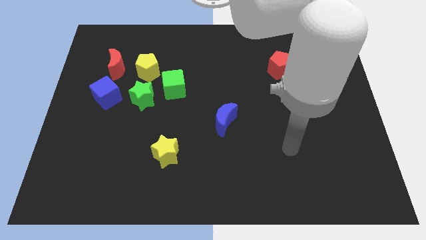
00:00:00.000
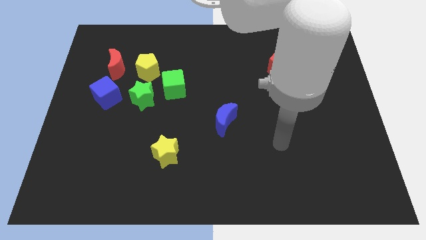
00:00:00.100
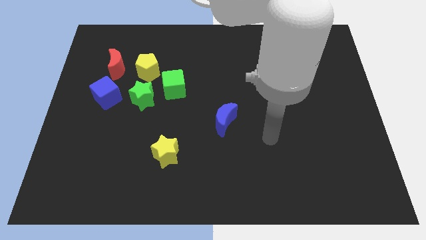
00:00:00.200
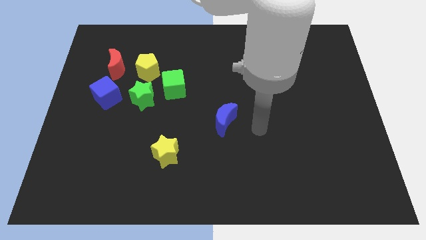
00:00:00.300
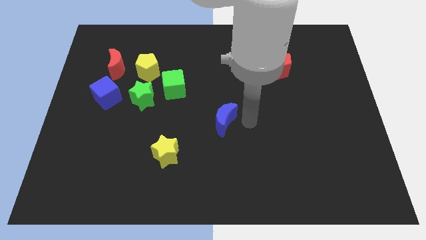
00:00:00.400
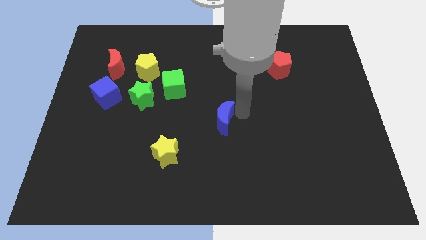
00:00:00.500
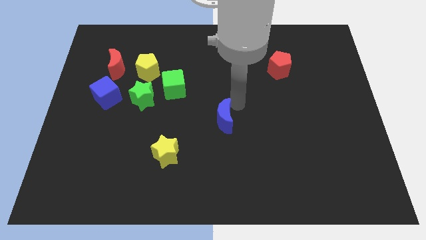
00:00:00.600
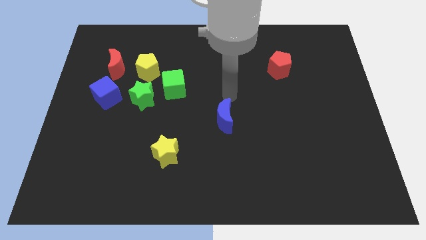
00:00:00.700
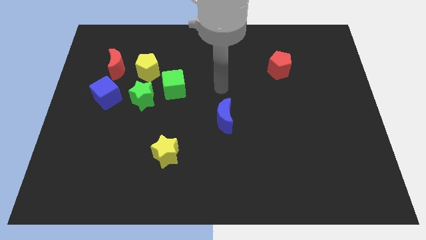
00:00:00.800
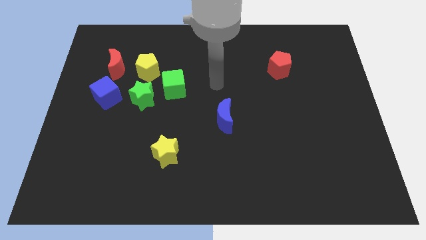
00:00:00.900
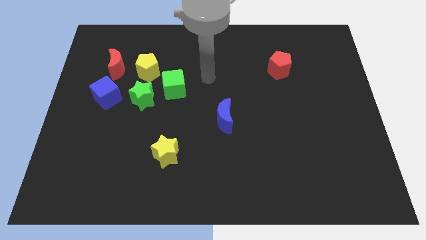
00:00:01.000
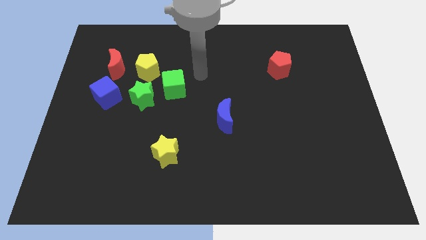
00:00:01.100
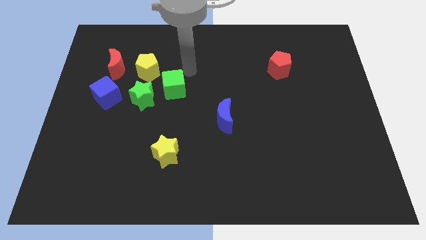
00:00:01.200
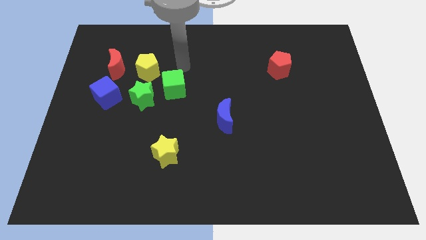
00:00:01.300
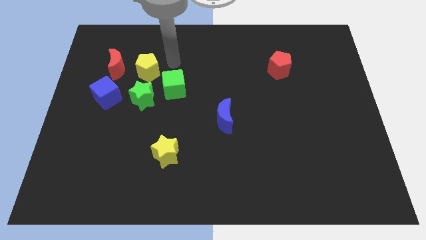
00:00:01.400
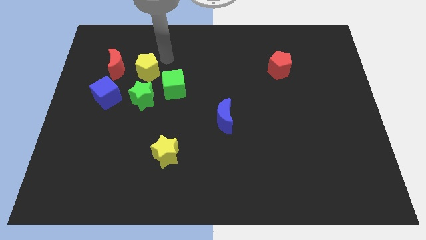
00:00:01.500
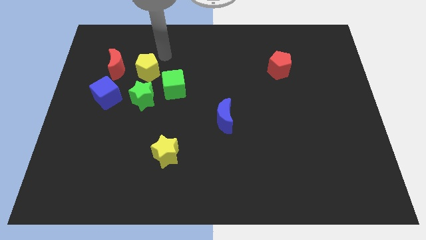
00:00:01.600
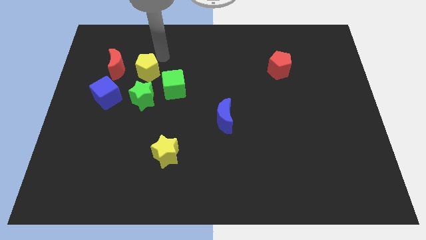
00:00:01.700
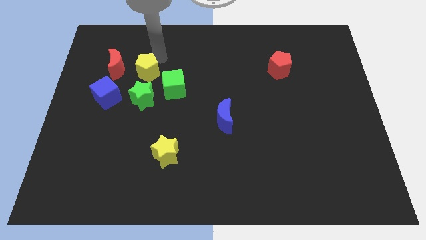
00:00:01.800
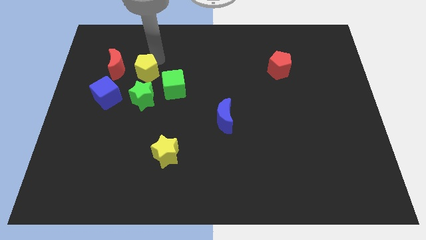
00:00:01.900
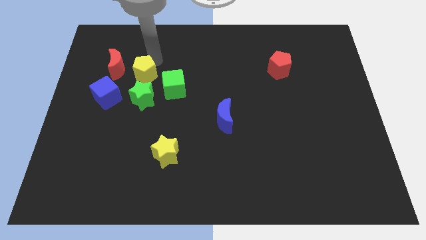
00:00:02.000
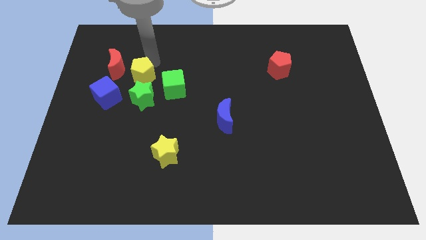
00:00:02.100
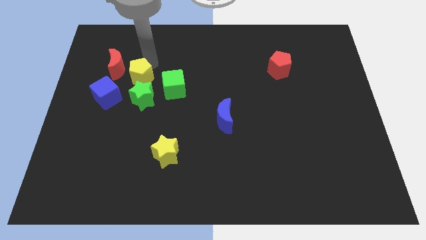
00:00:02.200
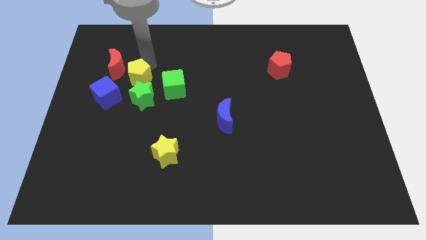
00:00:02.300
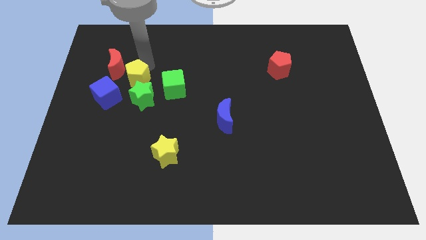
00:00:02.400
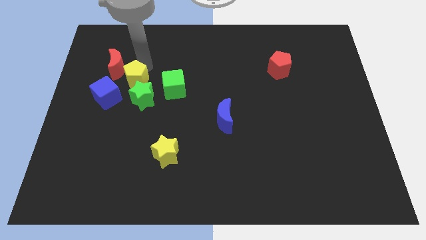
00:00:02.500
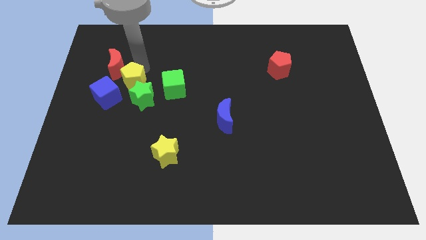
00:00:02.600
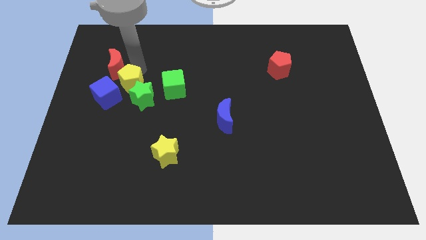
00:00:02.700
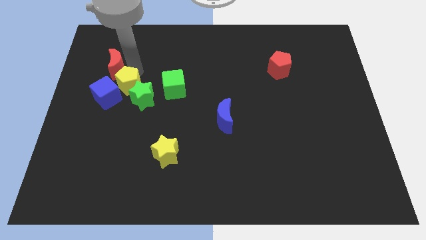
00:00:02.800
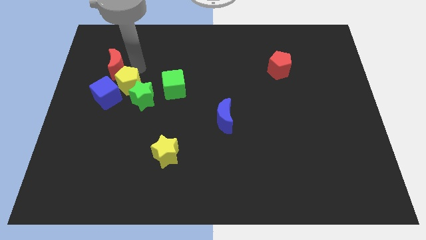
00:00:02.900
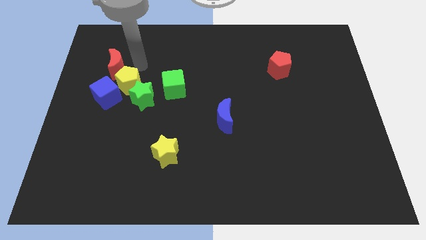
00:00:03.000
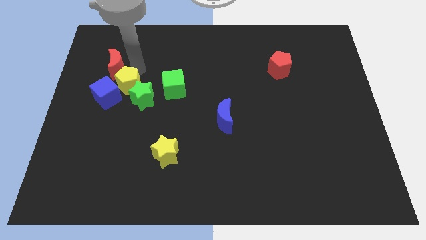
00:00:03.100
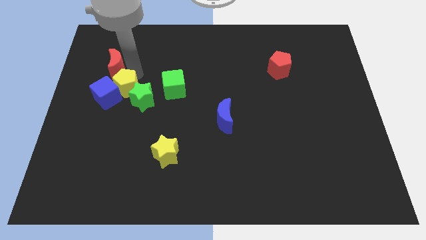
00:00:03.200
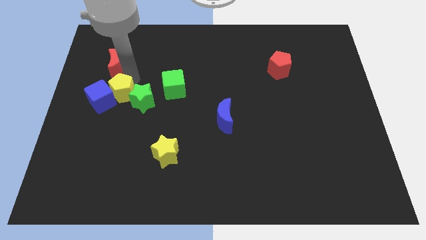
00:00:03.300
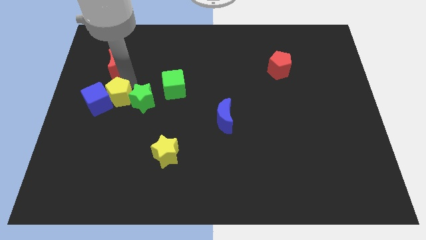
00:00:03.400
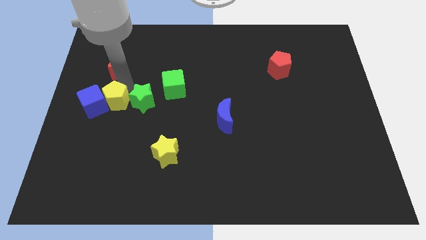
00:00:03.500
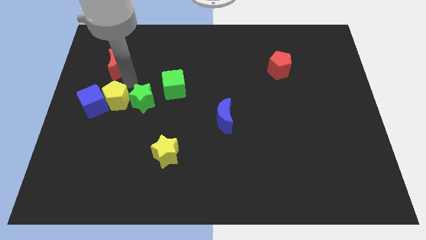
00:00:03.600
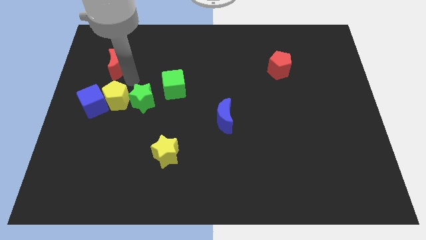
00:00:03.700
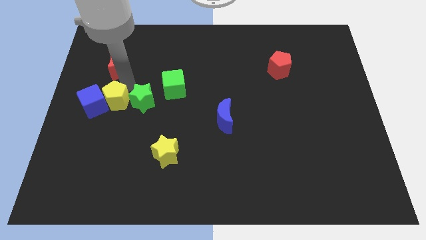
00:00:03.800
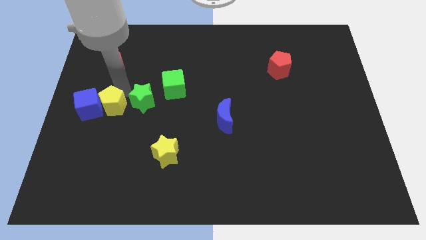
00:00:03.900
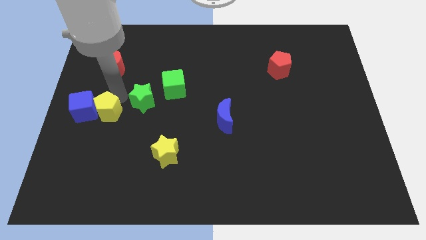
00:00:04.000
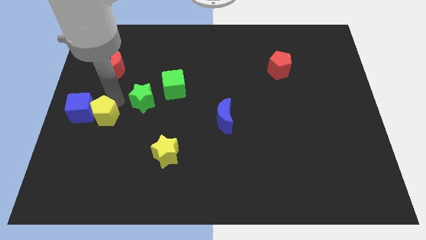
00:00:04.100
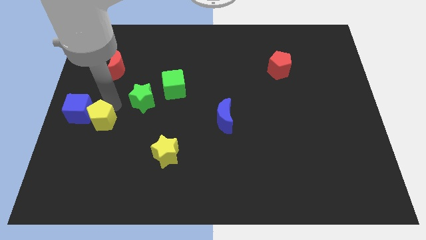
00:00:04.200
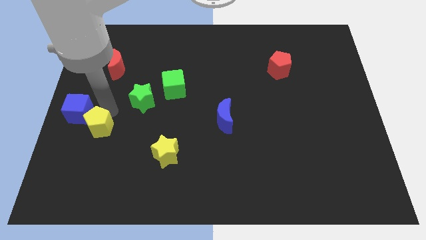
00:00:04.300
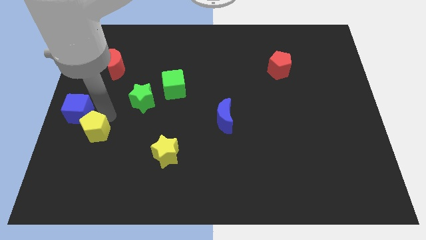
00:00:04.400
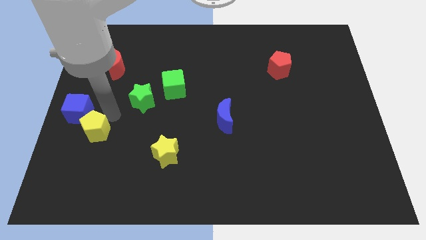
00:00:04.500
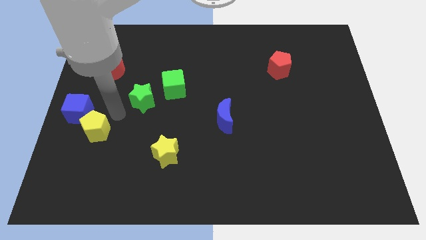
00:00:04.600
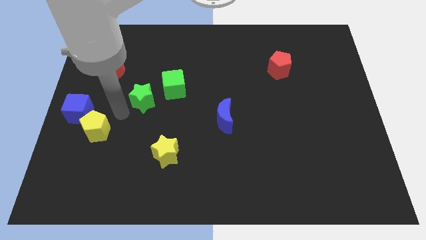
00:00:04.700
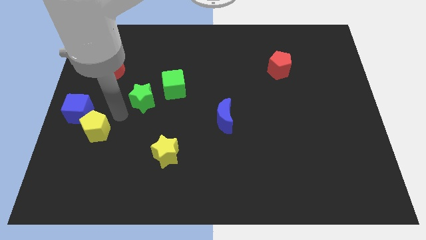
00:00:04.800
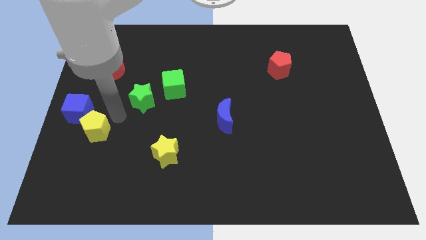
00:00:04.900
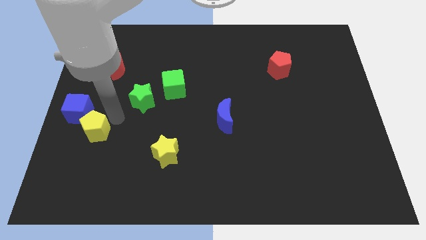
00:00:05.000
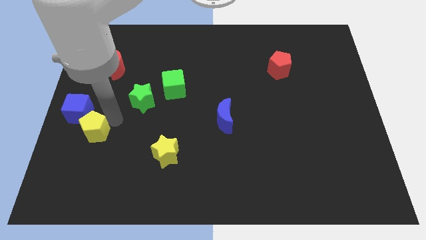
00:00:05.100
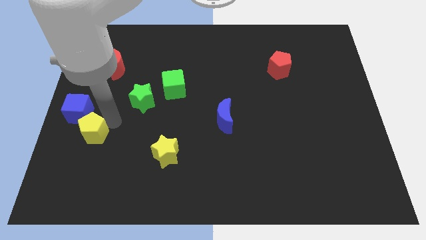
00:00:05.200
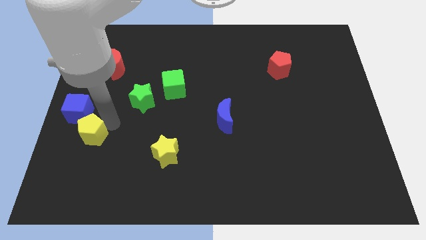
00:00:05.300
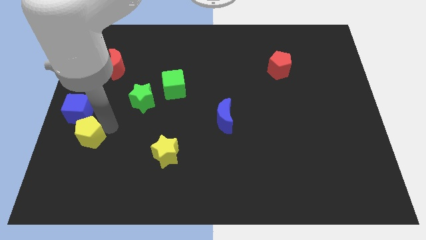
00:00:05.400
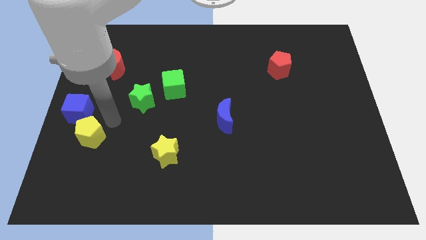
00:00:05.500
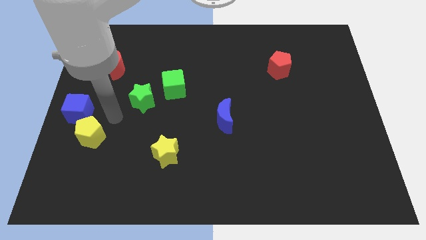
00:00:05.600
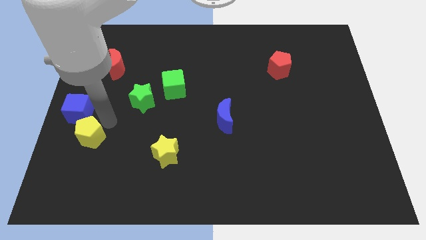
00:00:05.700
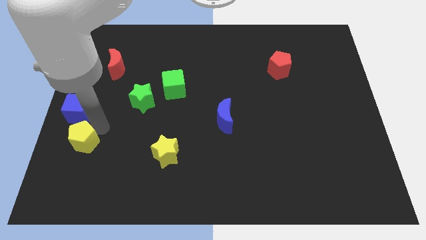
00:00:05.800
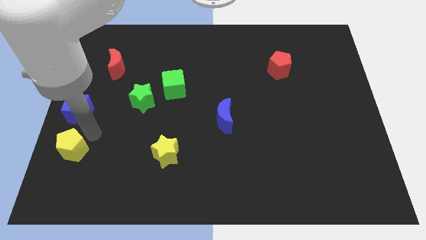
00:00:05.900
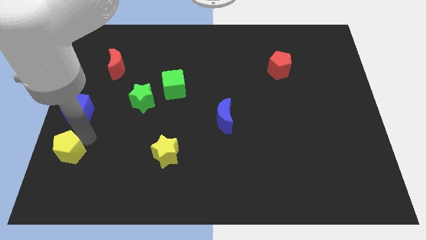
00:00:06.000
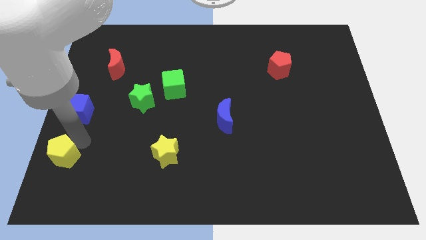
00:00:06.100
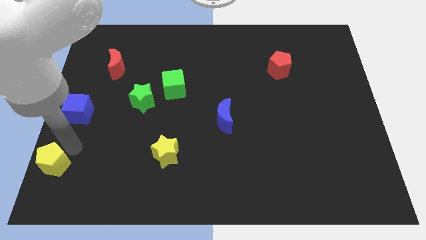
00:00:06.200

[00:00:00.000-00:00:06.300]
slide the yellow pentagon to the bottom left

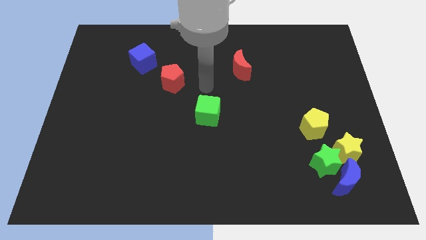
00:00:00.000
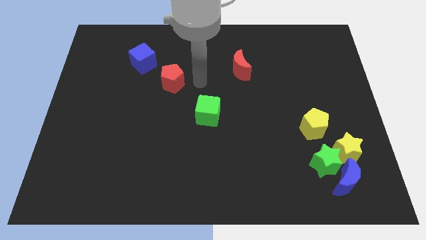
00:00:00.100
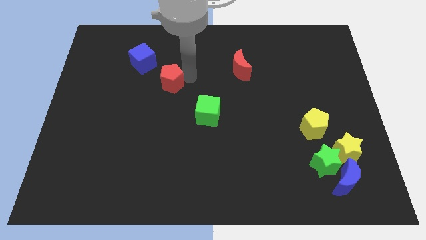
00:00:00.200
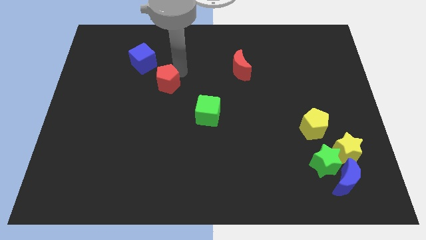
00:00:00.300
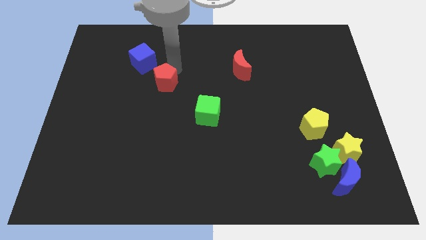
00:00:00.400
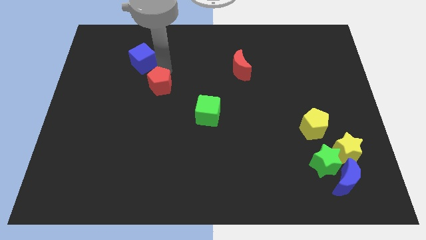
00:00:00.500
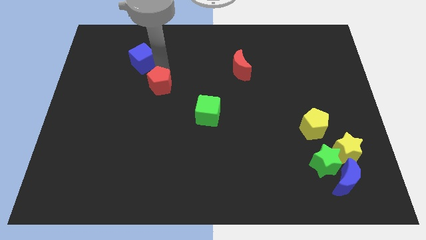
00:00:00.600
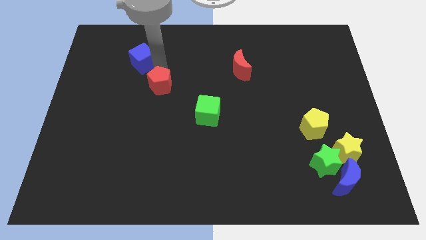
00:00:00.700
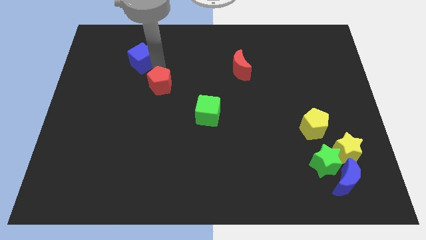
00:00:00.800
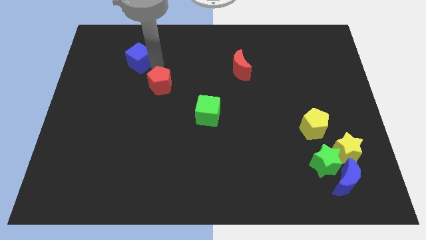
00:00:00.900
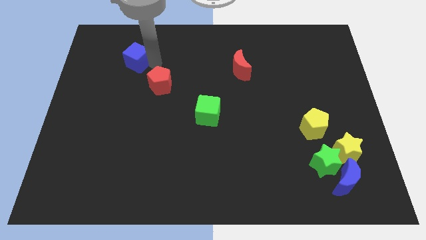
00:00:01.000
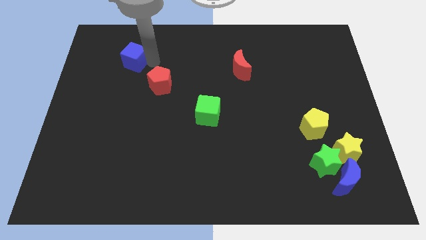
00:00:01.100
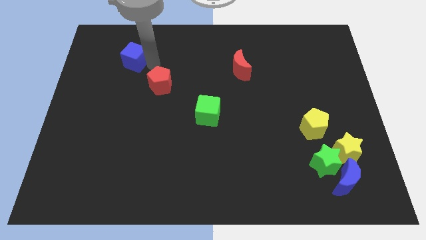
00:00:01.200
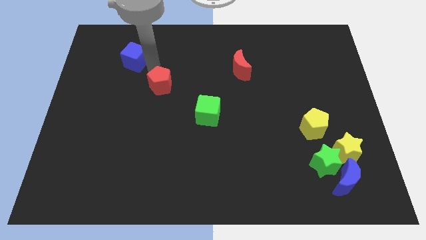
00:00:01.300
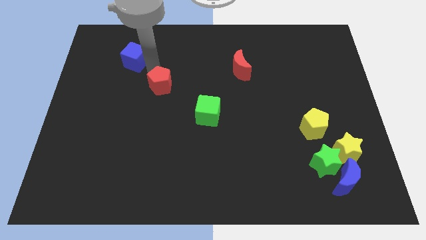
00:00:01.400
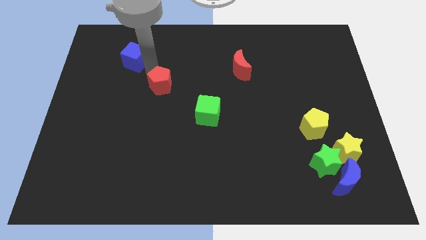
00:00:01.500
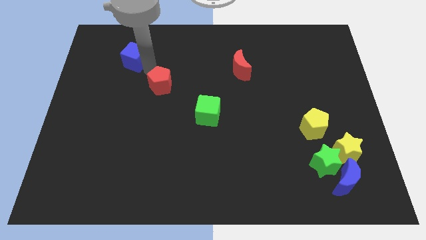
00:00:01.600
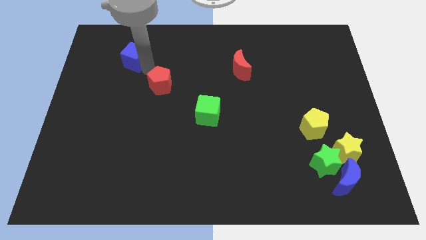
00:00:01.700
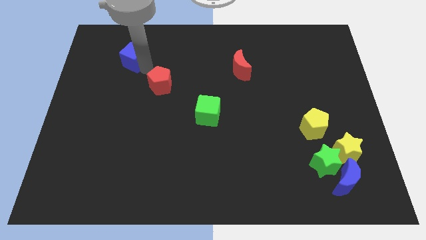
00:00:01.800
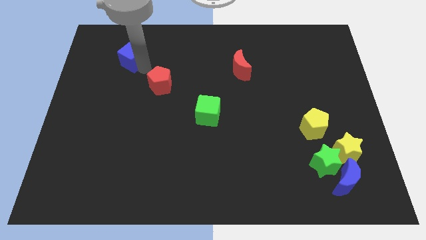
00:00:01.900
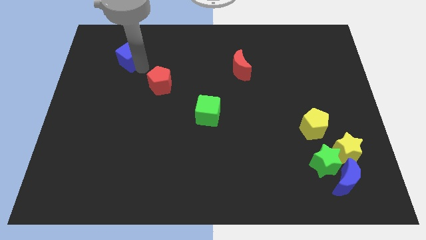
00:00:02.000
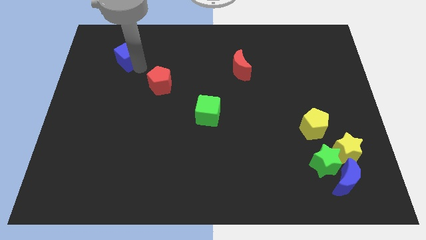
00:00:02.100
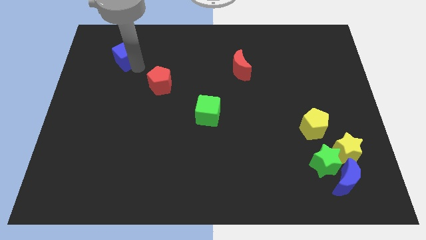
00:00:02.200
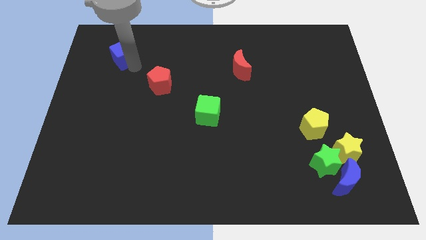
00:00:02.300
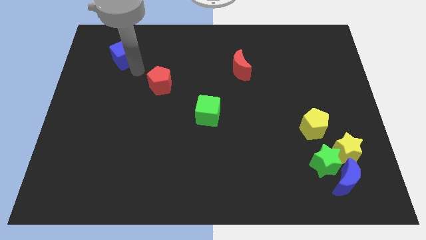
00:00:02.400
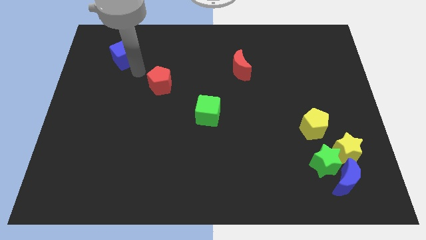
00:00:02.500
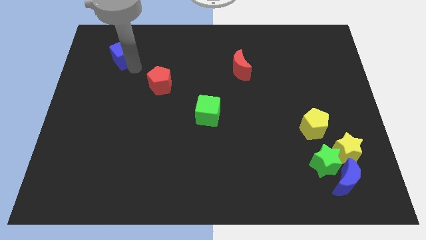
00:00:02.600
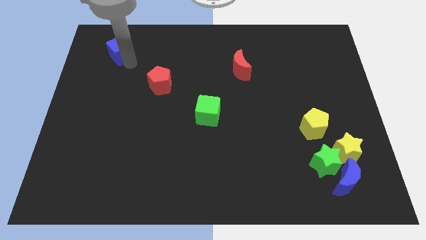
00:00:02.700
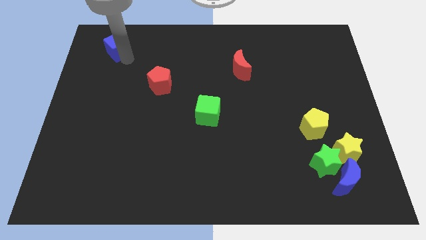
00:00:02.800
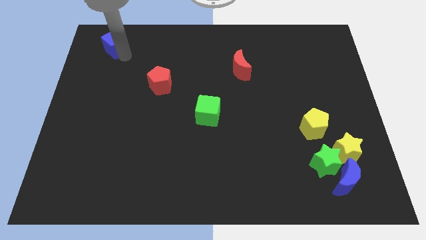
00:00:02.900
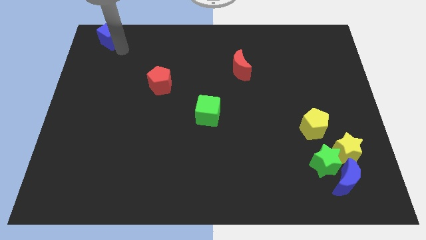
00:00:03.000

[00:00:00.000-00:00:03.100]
slide the blue cube to the top left corner
